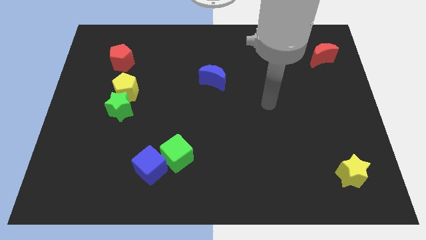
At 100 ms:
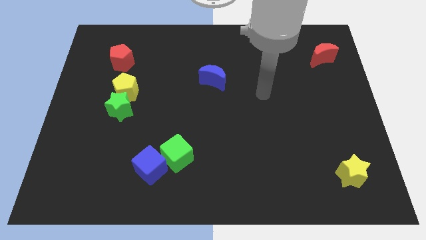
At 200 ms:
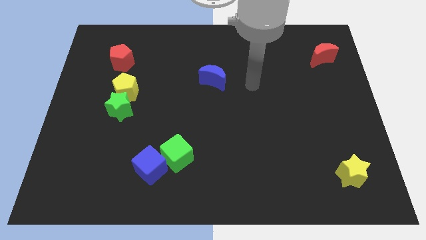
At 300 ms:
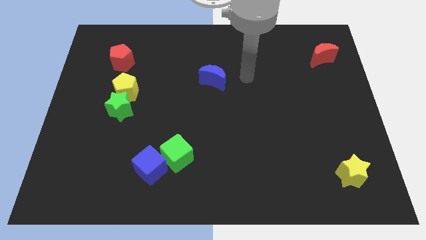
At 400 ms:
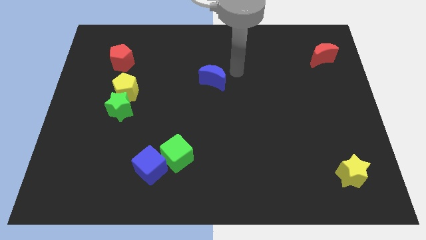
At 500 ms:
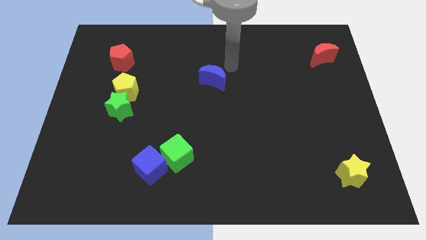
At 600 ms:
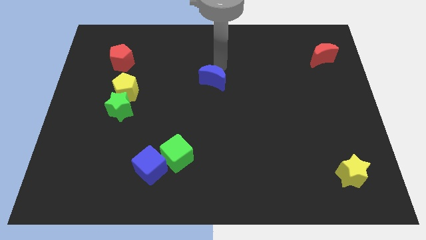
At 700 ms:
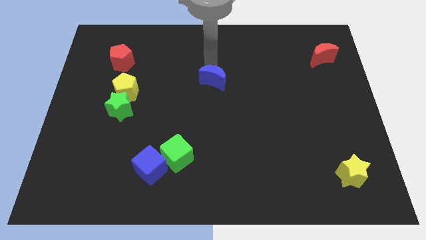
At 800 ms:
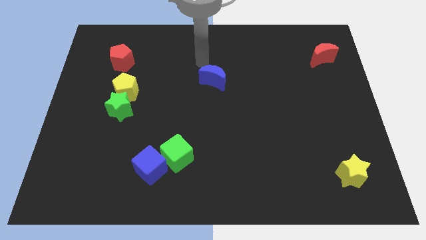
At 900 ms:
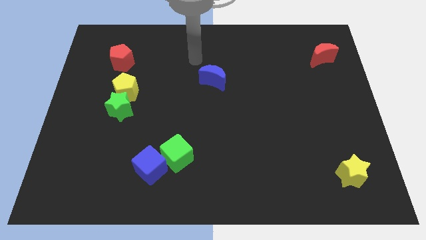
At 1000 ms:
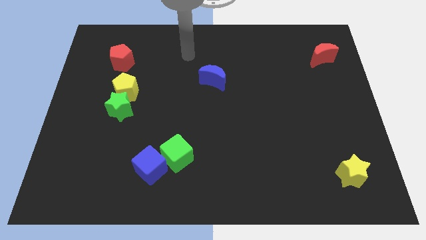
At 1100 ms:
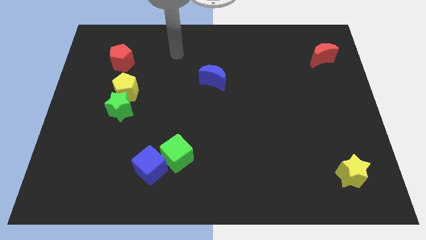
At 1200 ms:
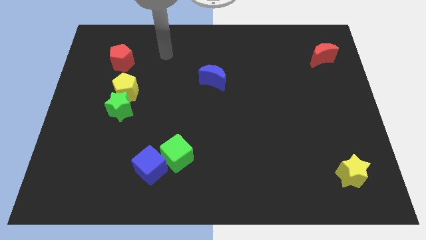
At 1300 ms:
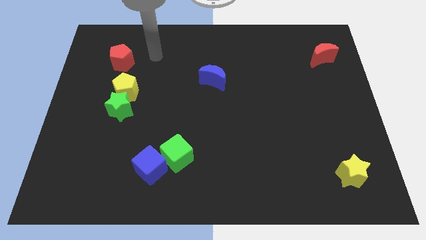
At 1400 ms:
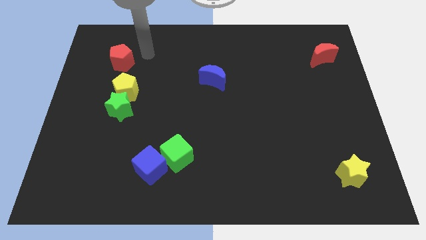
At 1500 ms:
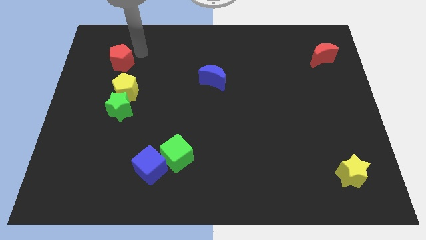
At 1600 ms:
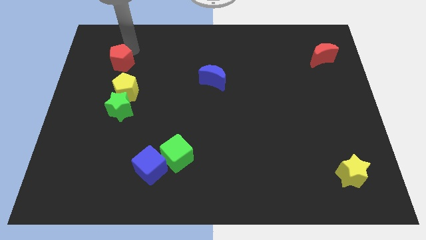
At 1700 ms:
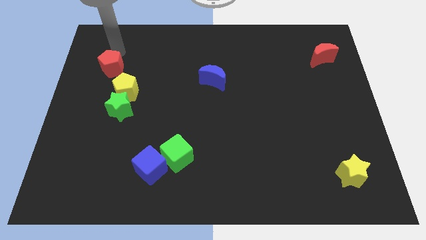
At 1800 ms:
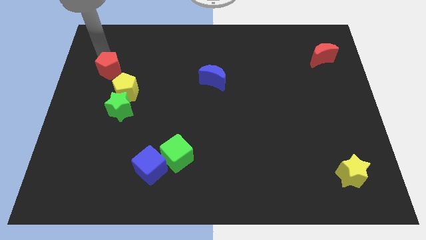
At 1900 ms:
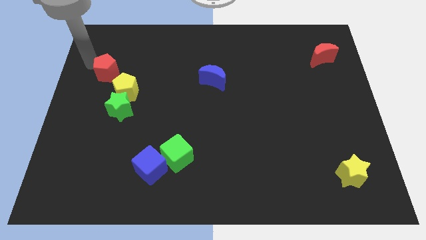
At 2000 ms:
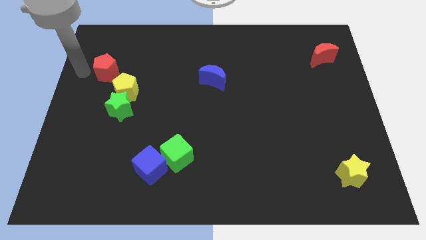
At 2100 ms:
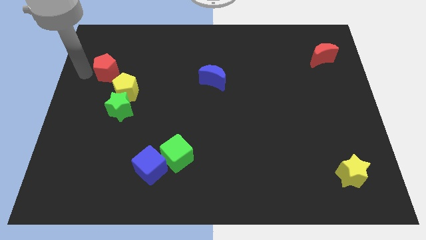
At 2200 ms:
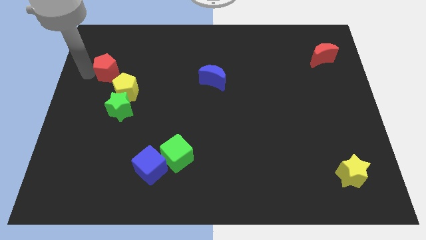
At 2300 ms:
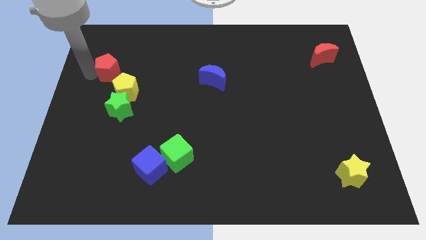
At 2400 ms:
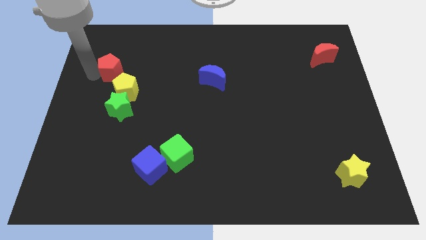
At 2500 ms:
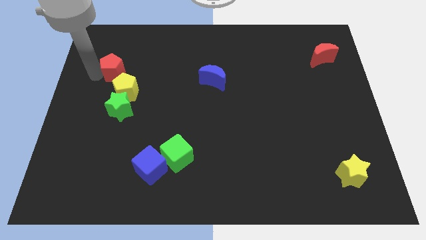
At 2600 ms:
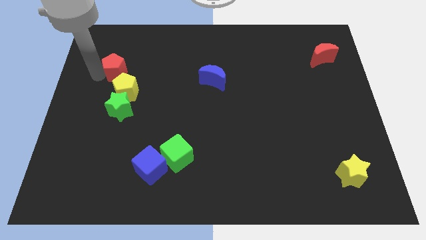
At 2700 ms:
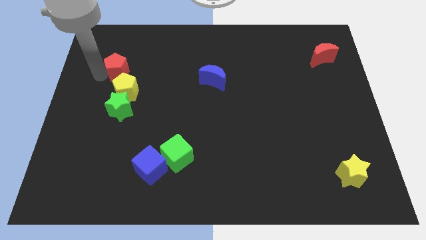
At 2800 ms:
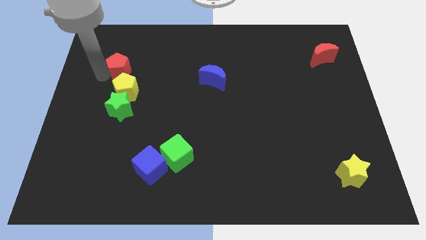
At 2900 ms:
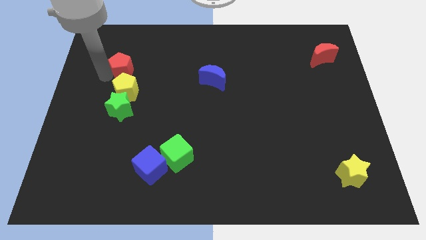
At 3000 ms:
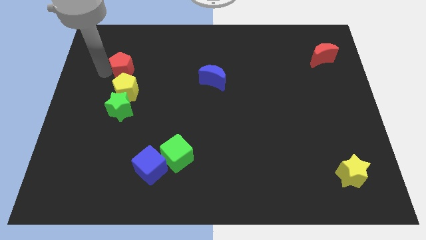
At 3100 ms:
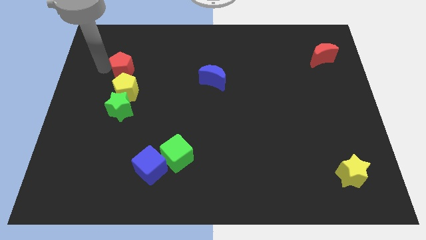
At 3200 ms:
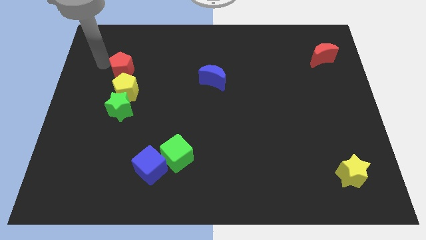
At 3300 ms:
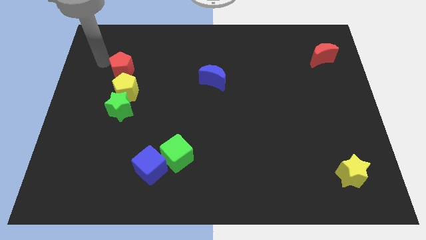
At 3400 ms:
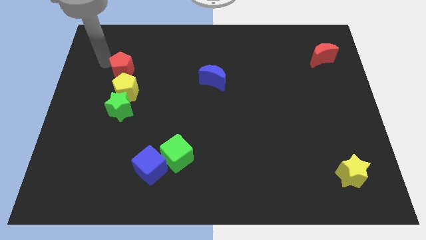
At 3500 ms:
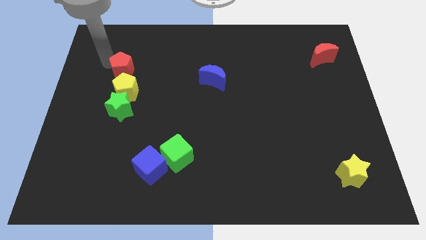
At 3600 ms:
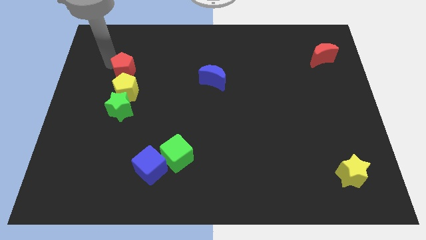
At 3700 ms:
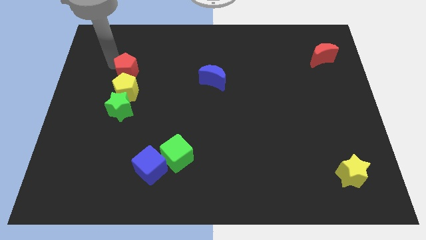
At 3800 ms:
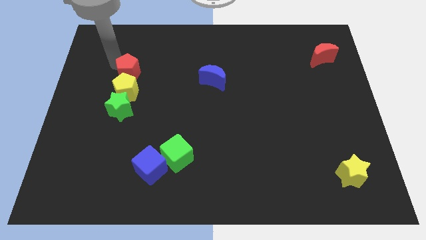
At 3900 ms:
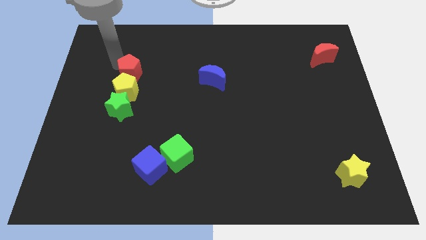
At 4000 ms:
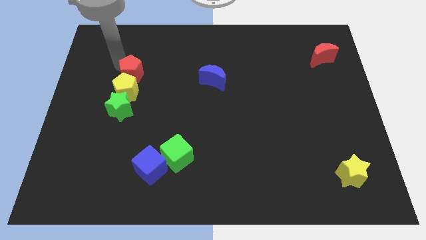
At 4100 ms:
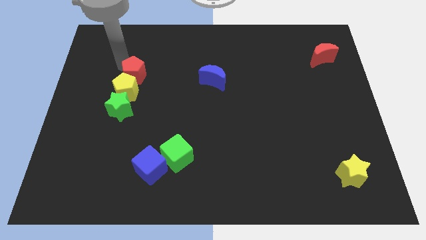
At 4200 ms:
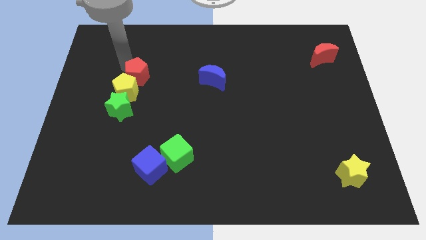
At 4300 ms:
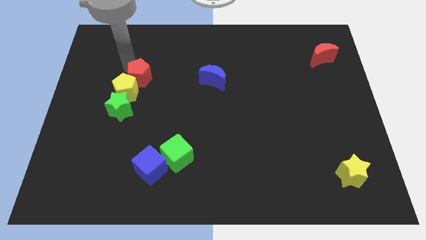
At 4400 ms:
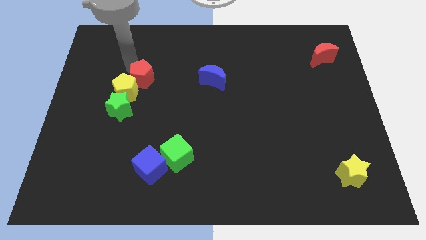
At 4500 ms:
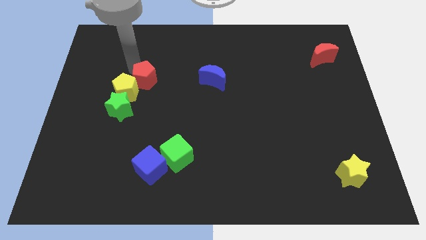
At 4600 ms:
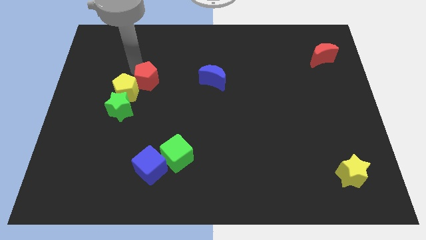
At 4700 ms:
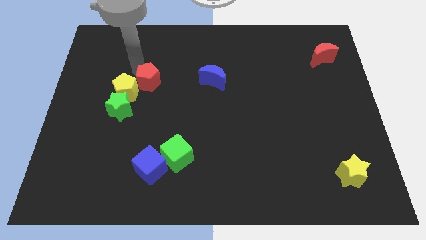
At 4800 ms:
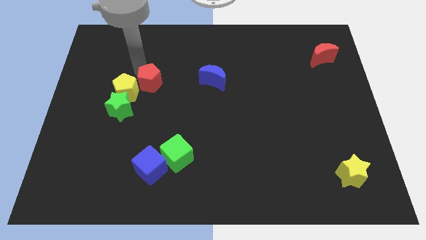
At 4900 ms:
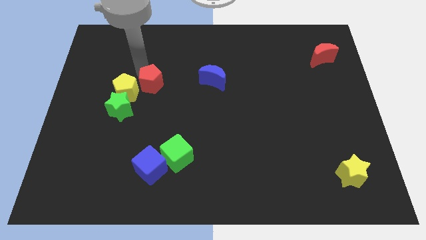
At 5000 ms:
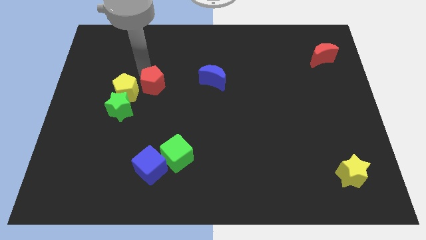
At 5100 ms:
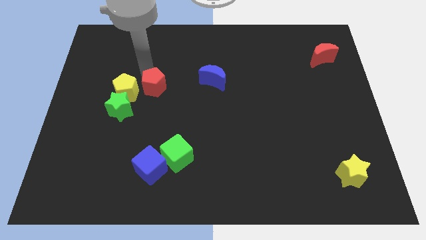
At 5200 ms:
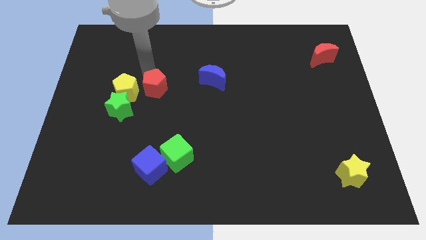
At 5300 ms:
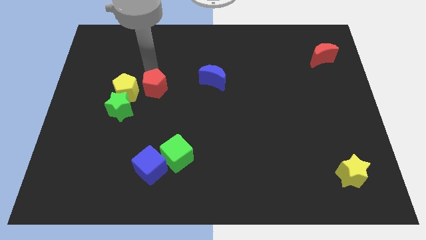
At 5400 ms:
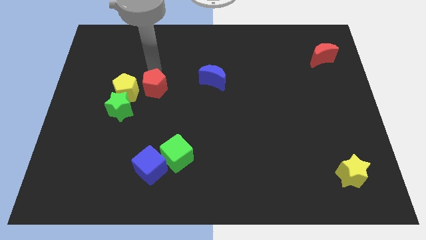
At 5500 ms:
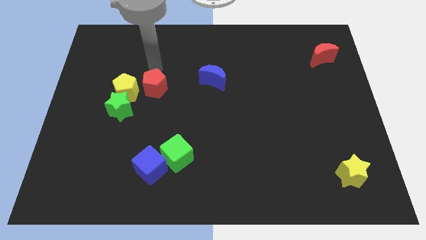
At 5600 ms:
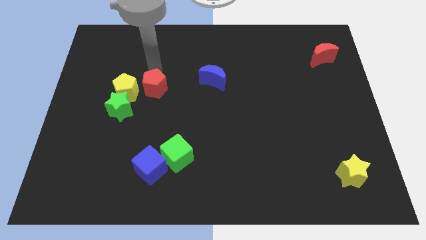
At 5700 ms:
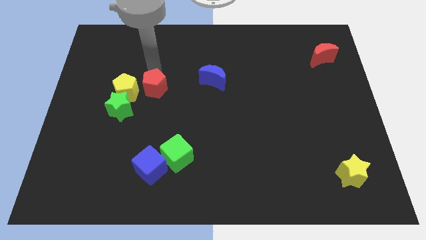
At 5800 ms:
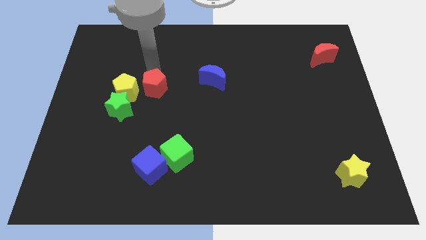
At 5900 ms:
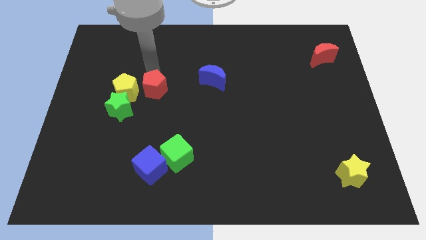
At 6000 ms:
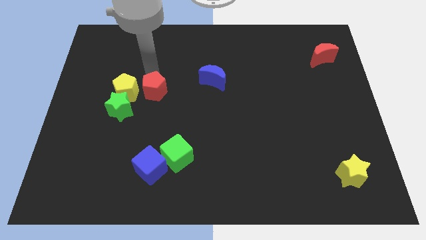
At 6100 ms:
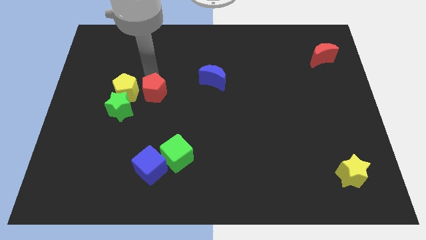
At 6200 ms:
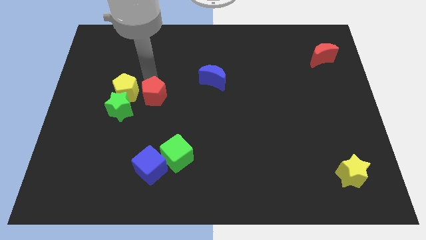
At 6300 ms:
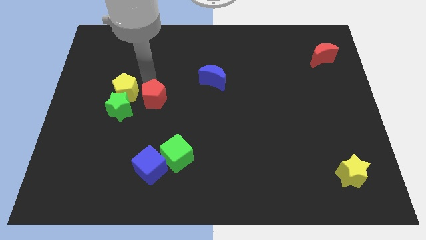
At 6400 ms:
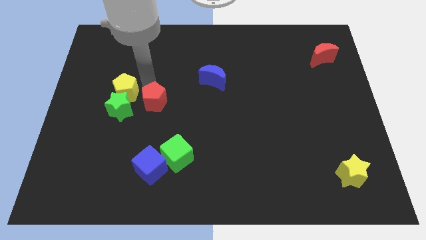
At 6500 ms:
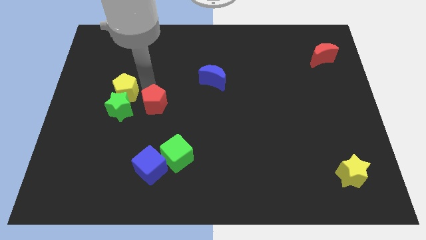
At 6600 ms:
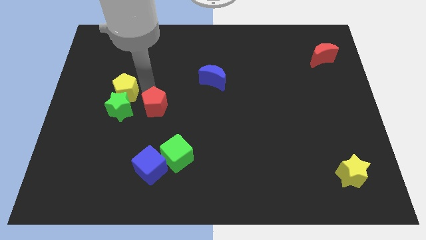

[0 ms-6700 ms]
move the red pentagon to the top side of the blue cube

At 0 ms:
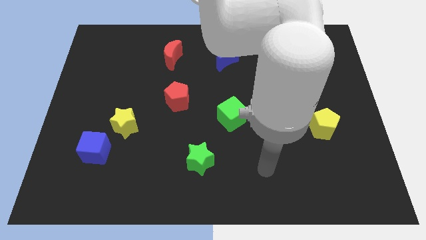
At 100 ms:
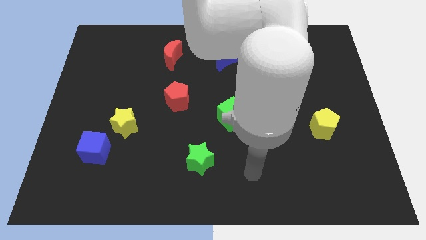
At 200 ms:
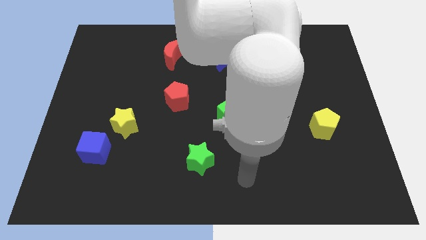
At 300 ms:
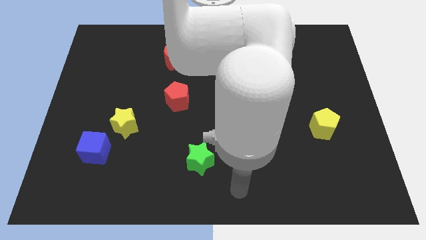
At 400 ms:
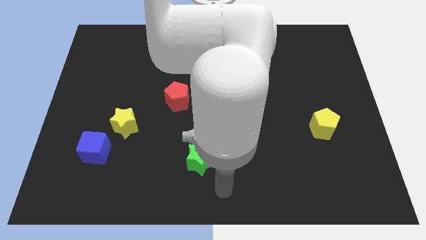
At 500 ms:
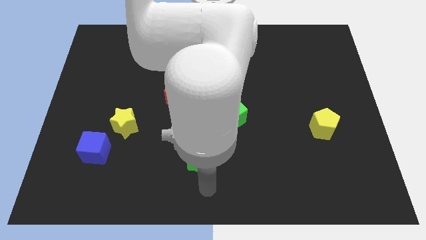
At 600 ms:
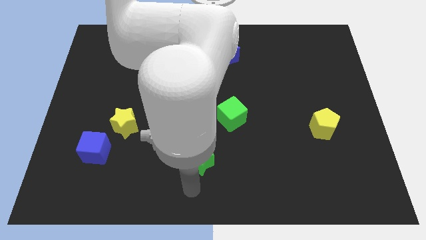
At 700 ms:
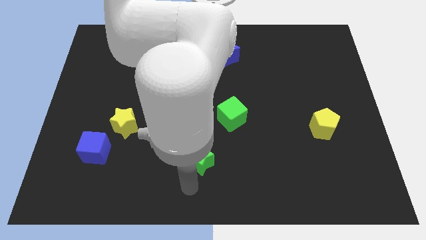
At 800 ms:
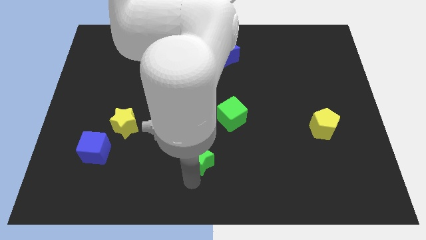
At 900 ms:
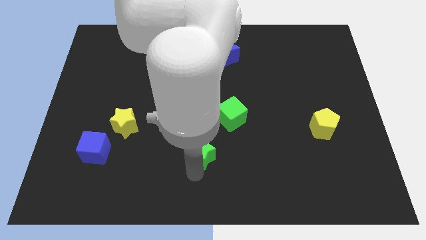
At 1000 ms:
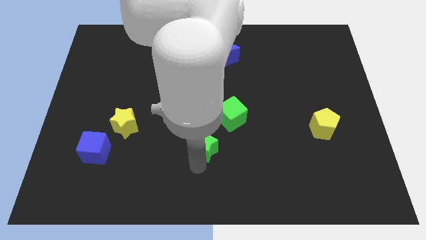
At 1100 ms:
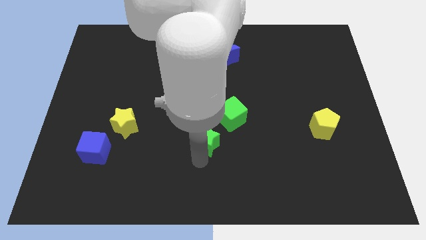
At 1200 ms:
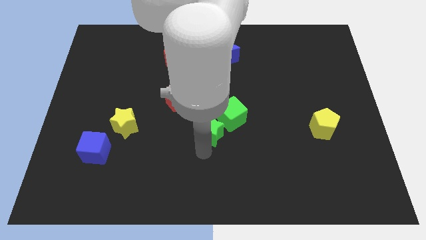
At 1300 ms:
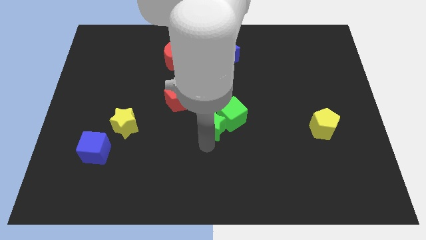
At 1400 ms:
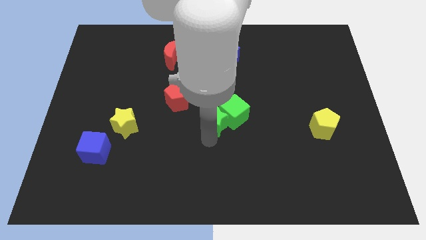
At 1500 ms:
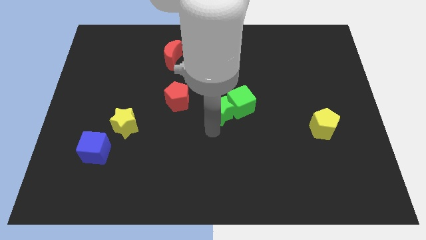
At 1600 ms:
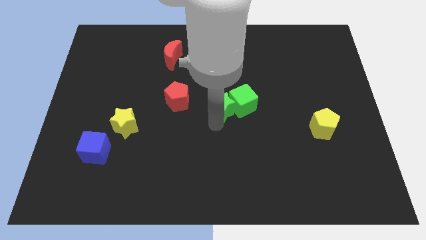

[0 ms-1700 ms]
put the green star to the bottom of the blue moon
